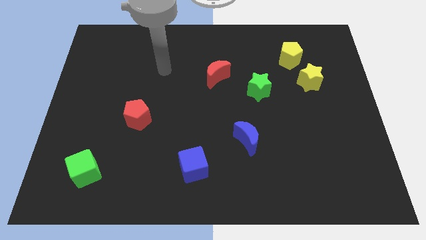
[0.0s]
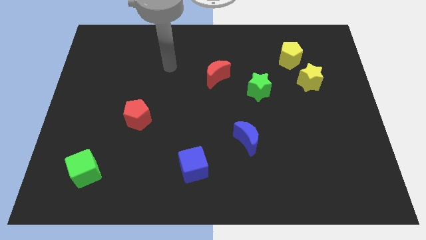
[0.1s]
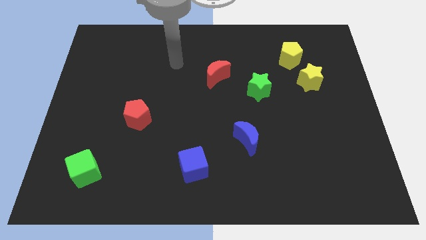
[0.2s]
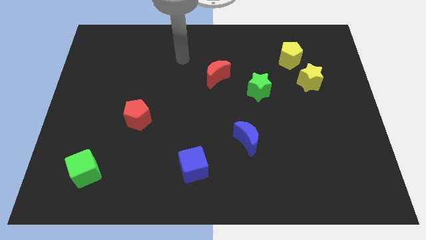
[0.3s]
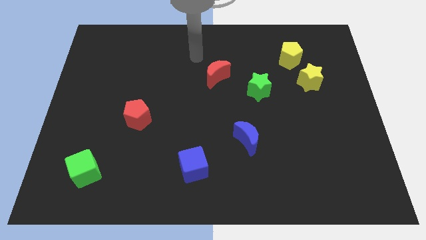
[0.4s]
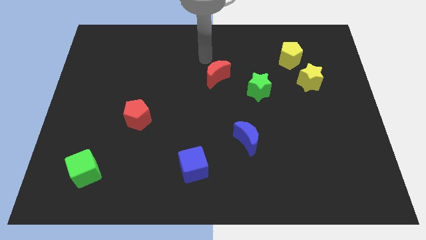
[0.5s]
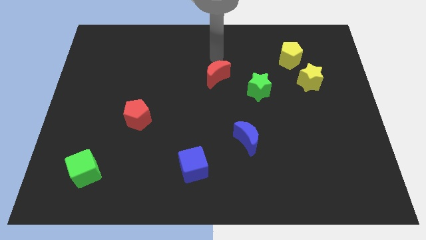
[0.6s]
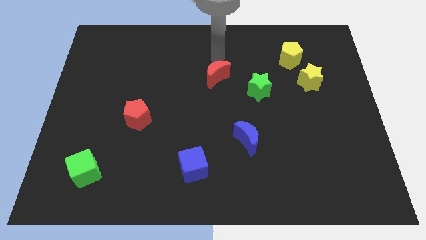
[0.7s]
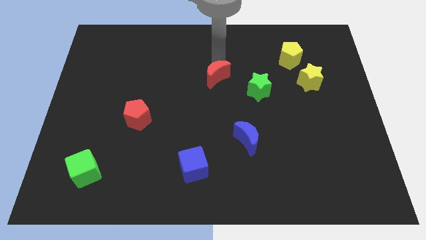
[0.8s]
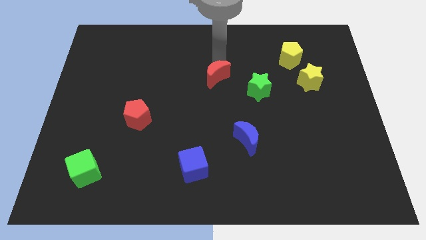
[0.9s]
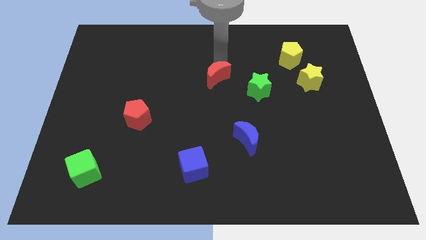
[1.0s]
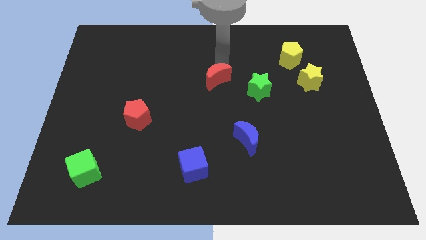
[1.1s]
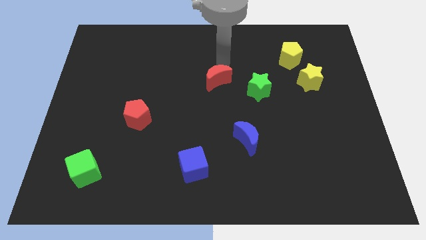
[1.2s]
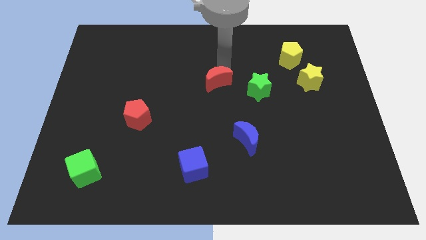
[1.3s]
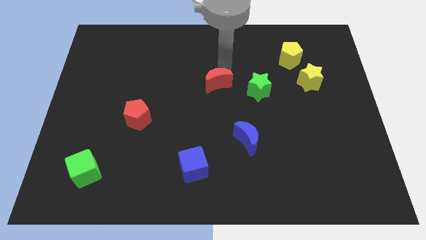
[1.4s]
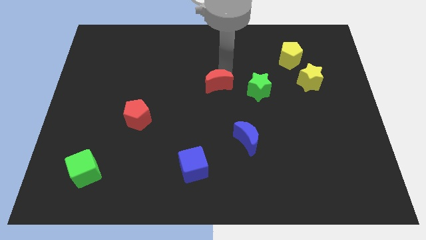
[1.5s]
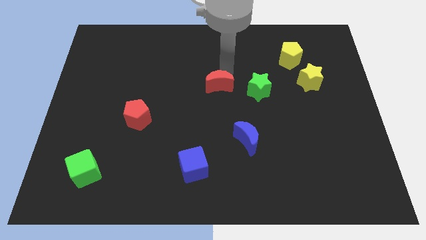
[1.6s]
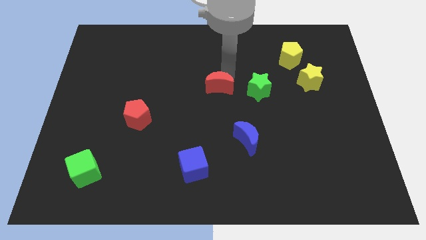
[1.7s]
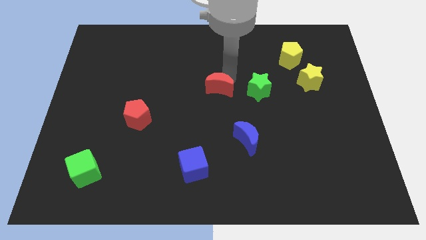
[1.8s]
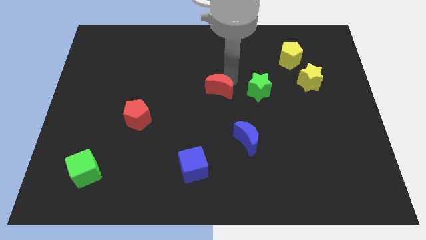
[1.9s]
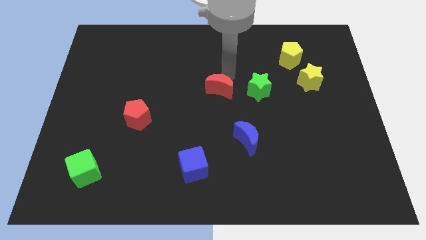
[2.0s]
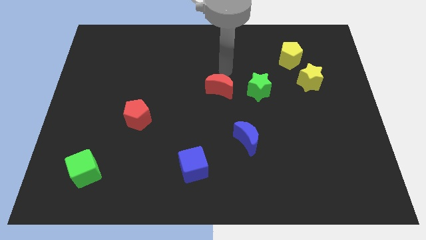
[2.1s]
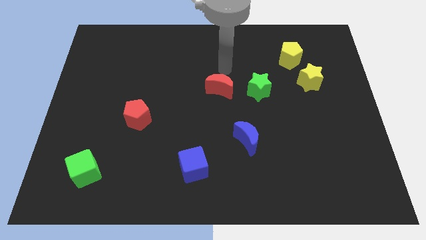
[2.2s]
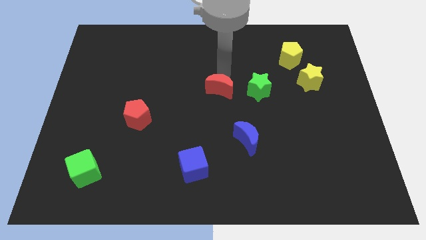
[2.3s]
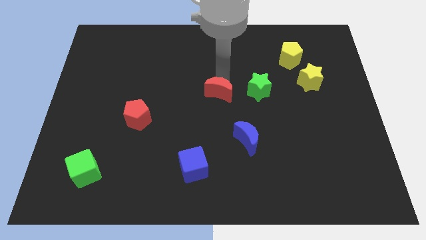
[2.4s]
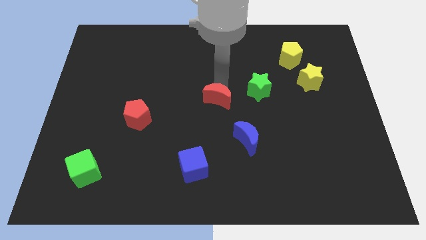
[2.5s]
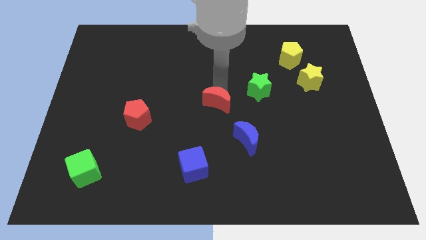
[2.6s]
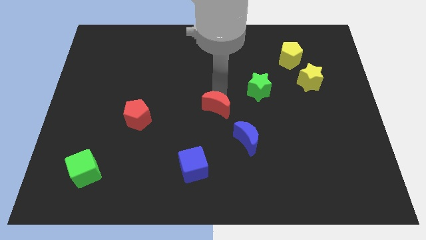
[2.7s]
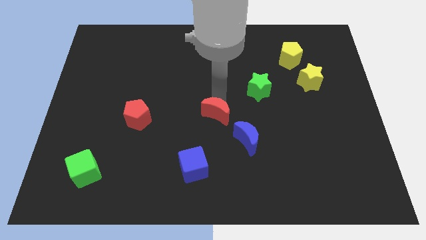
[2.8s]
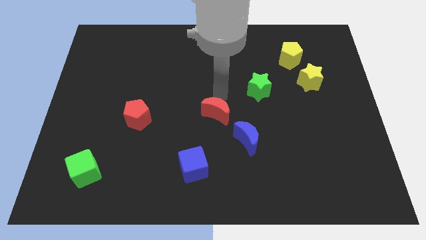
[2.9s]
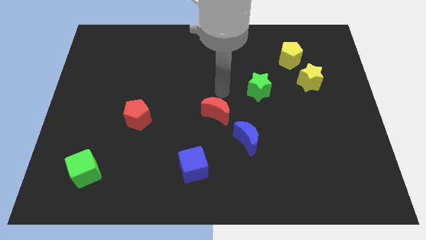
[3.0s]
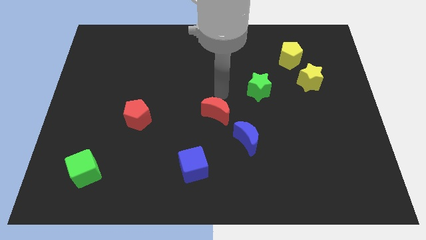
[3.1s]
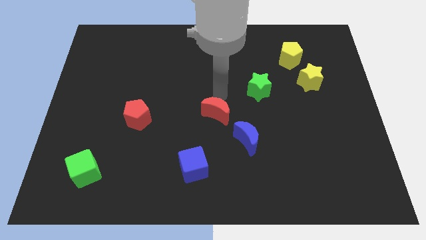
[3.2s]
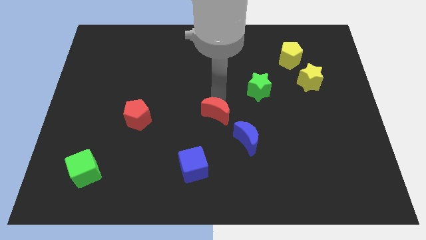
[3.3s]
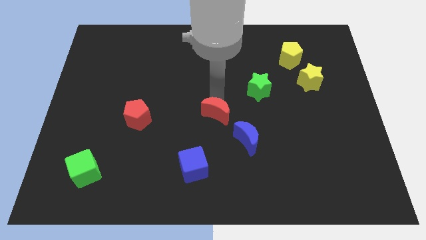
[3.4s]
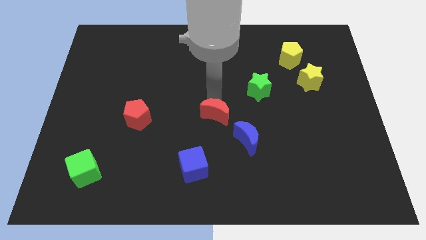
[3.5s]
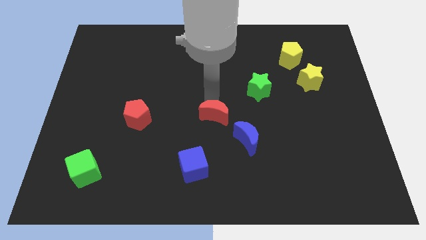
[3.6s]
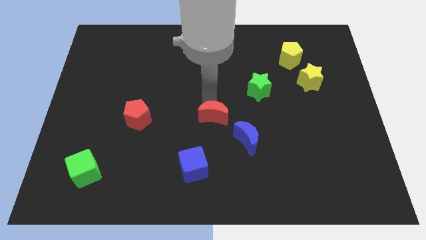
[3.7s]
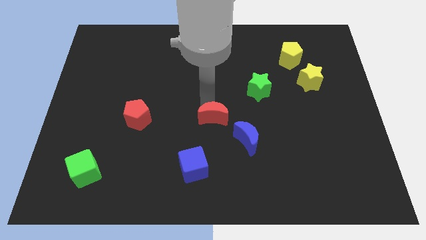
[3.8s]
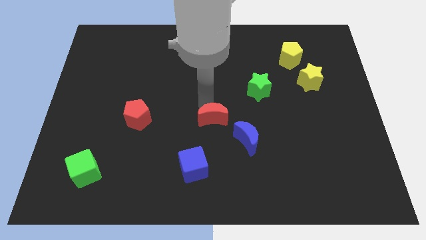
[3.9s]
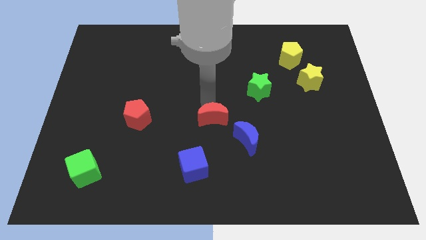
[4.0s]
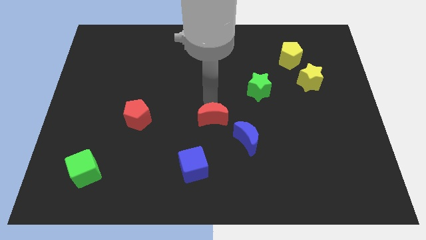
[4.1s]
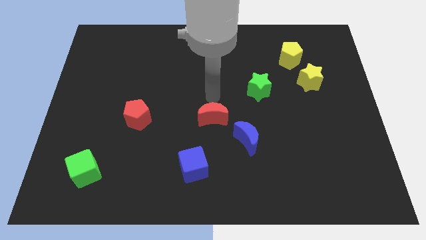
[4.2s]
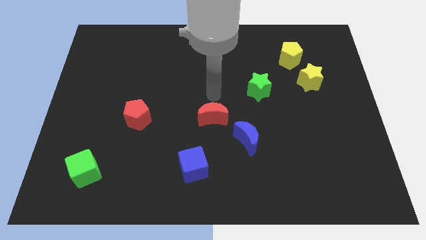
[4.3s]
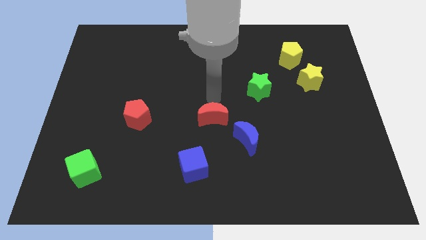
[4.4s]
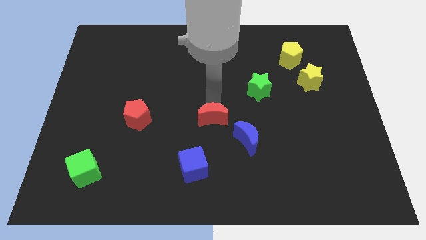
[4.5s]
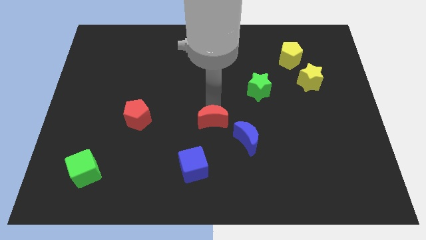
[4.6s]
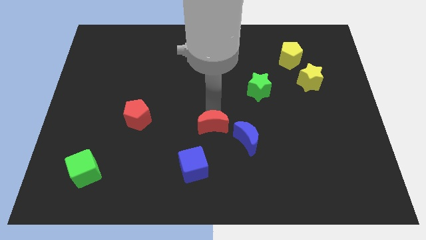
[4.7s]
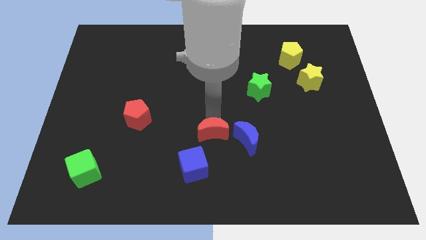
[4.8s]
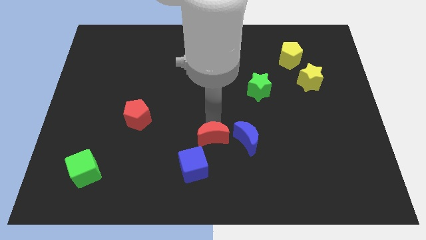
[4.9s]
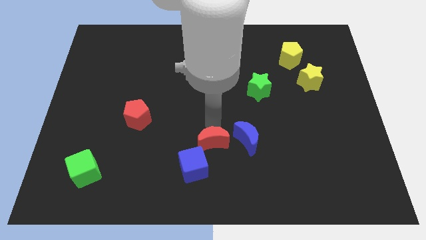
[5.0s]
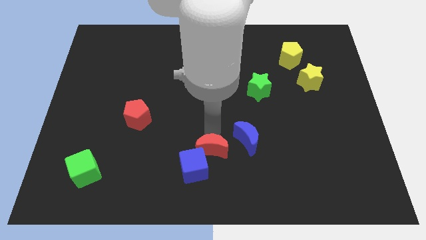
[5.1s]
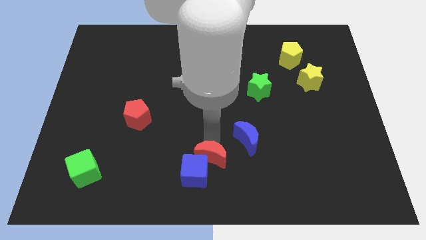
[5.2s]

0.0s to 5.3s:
put the red moon to the bottom
